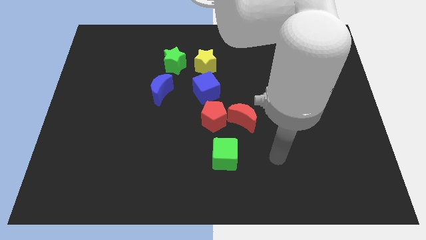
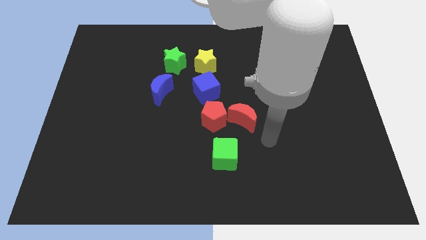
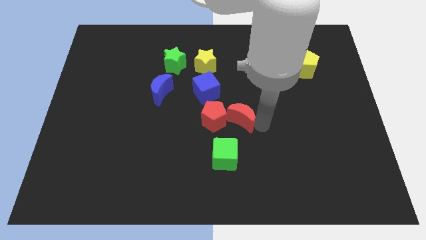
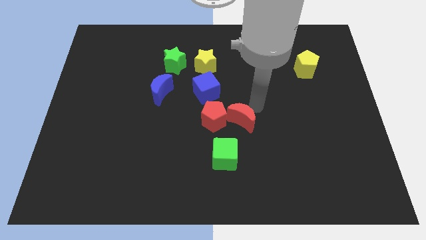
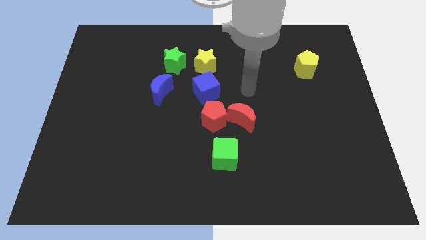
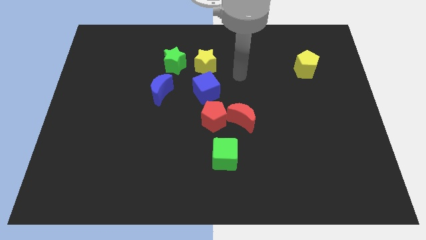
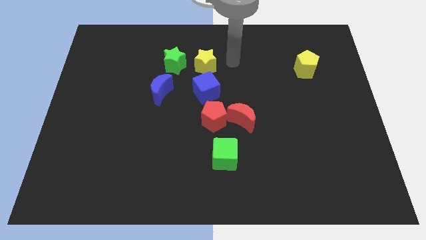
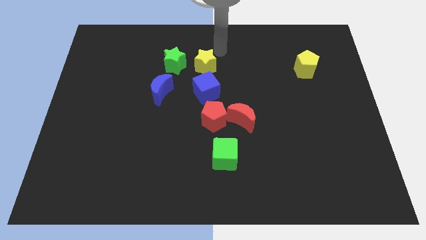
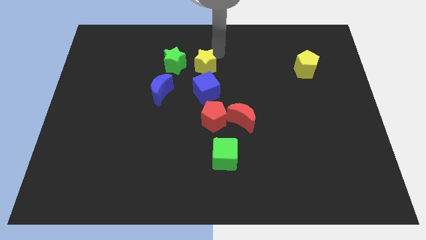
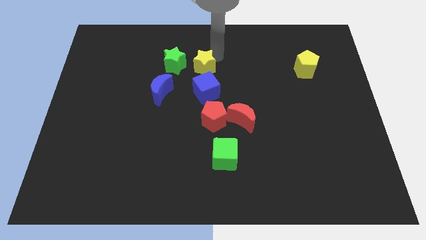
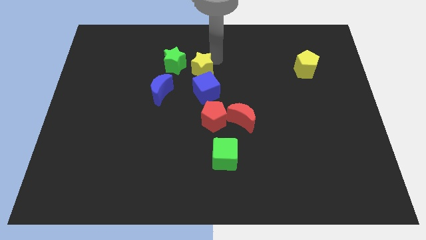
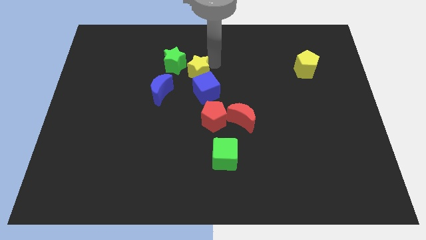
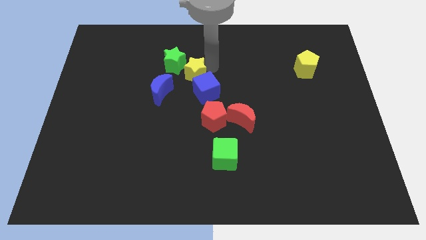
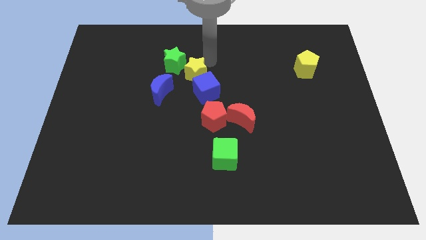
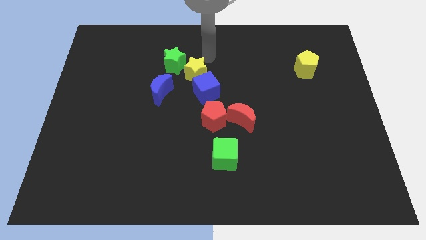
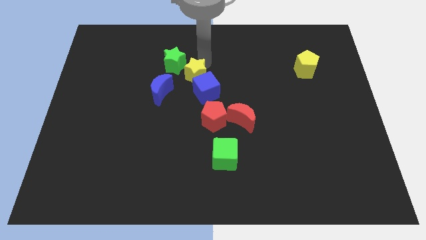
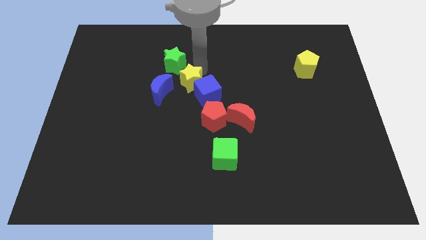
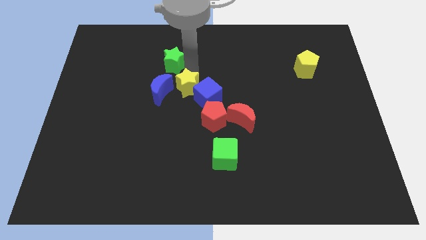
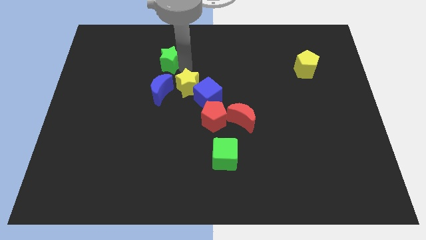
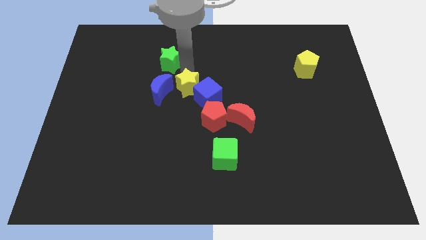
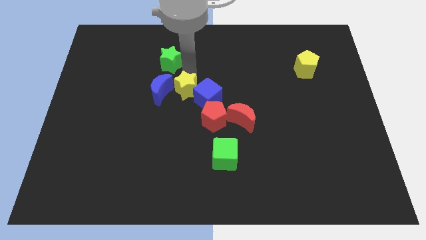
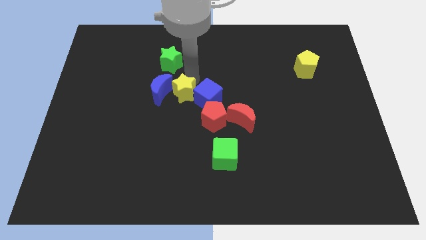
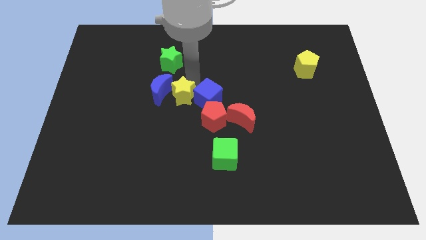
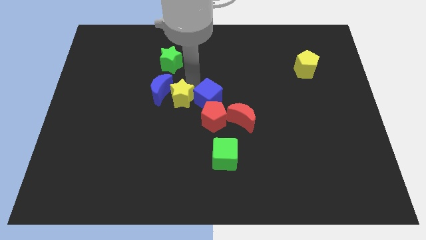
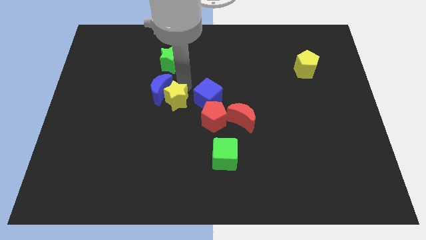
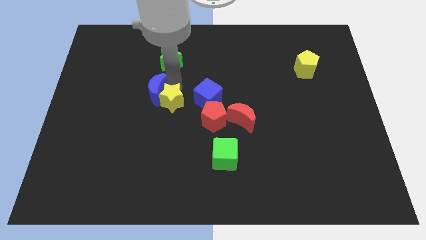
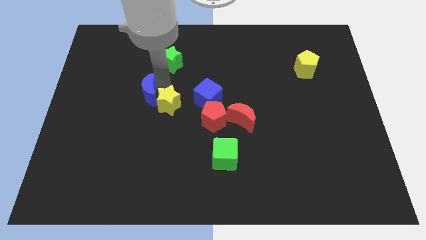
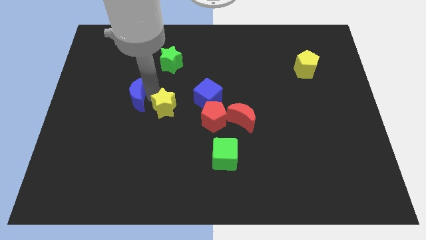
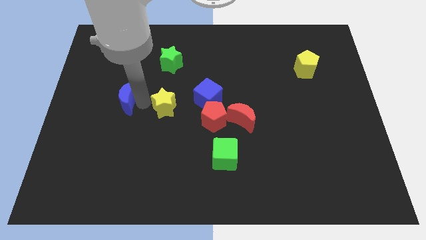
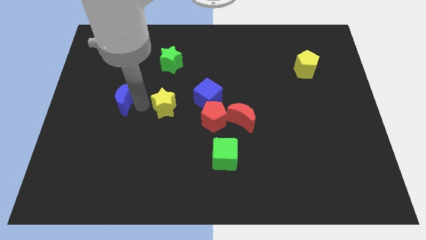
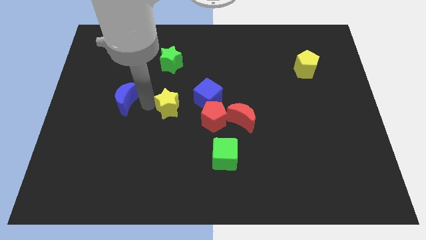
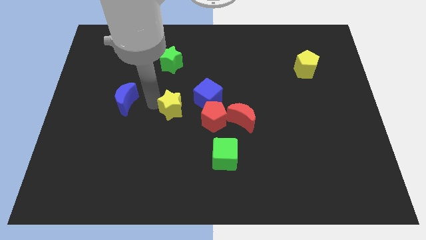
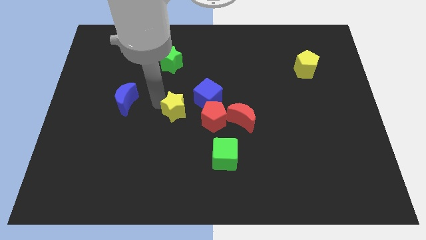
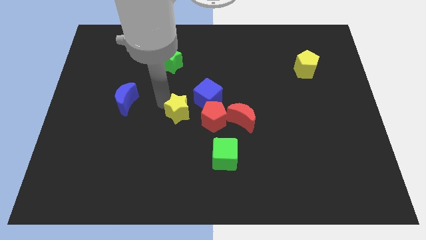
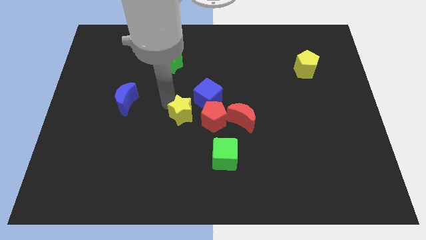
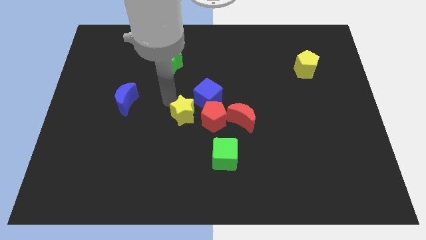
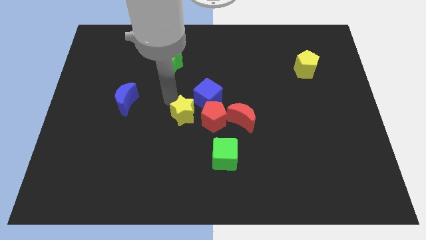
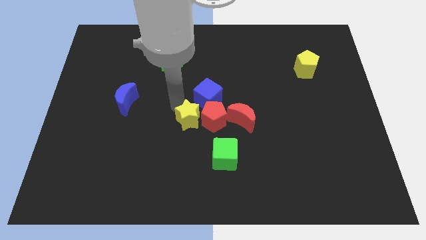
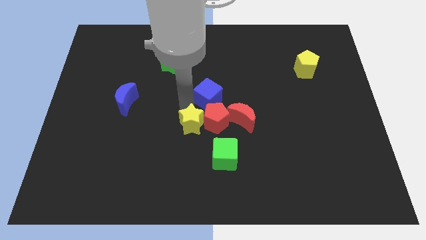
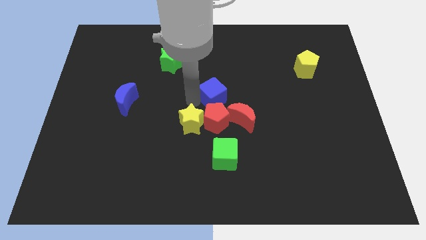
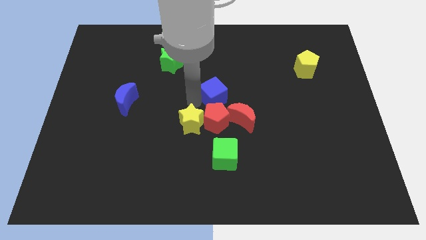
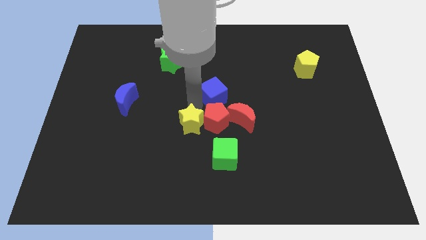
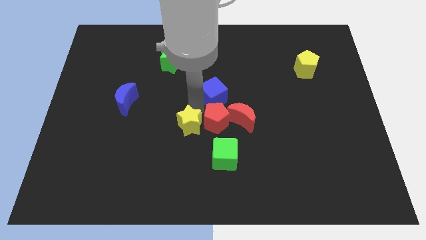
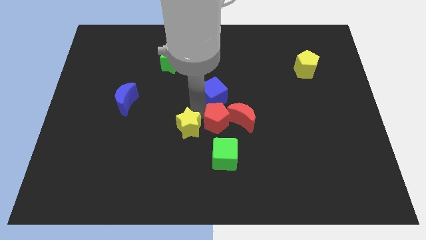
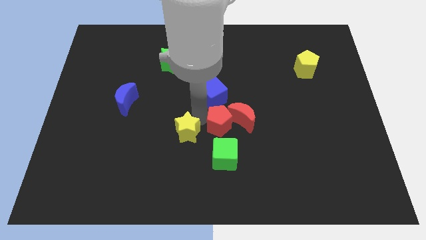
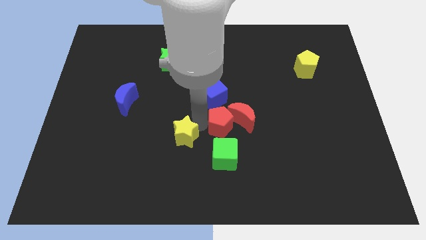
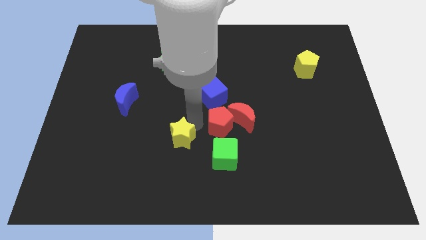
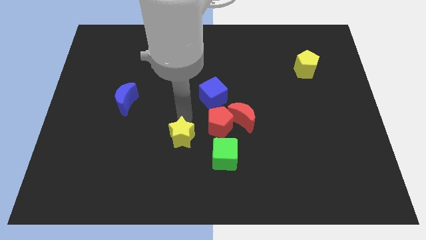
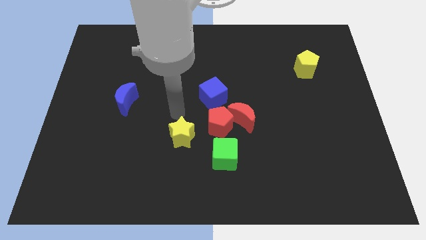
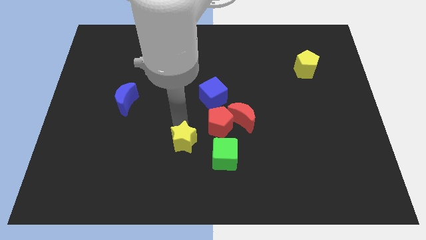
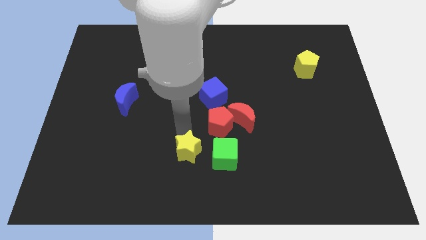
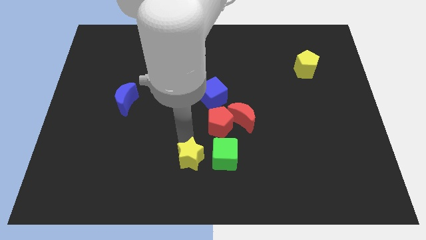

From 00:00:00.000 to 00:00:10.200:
put the yellow star to the bottom

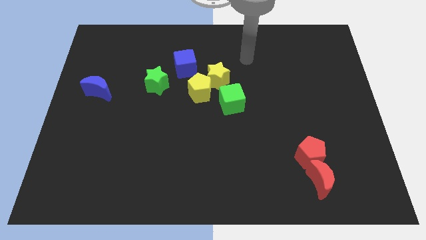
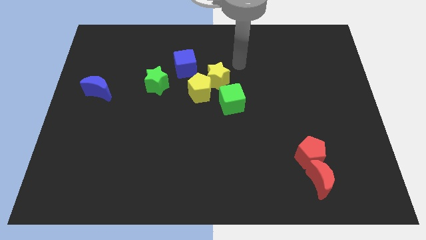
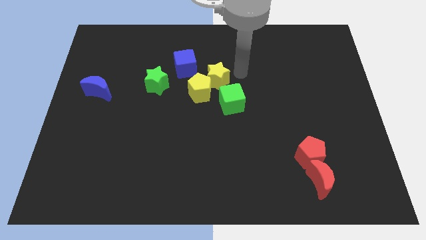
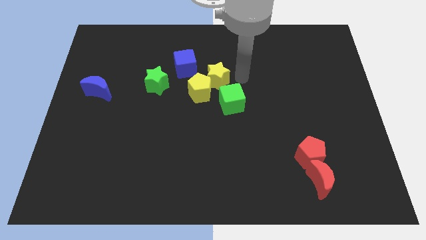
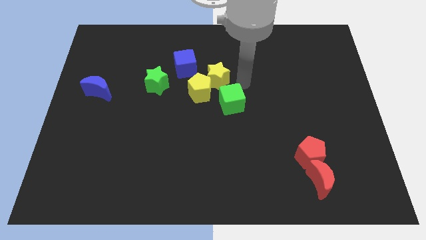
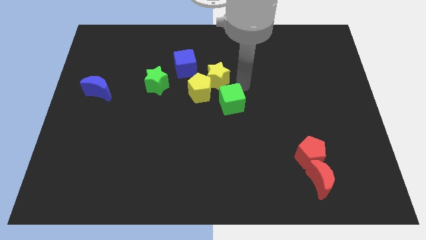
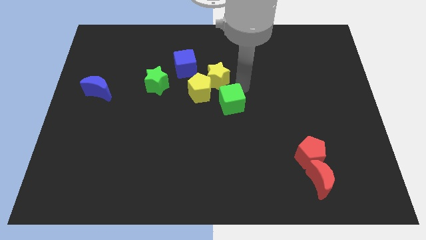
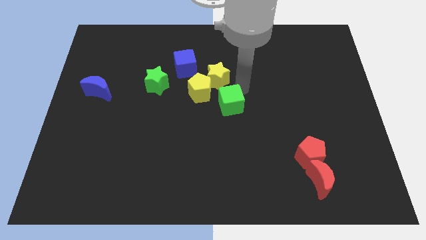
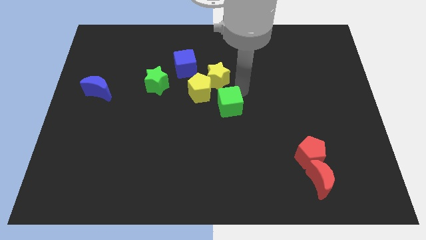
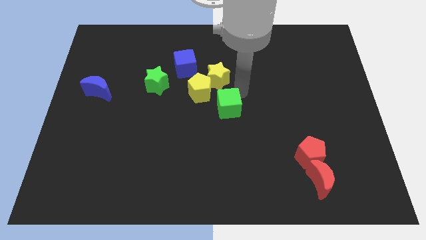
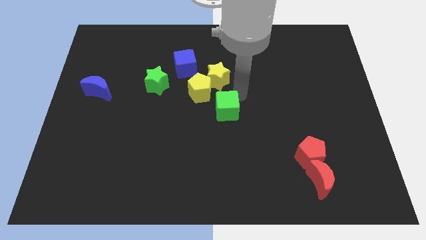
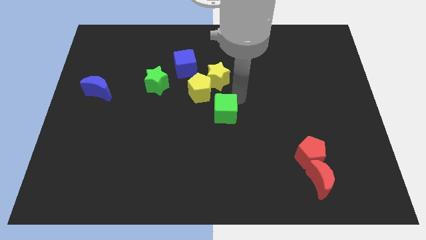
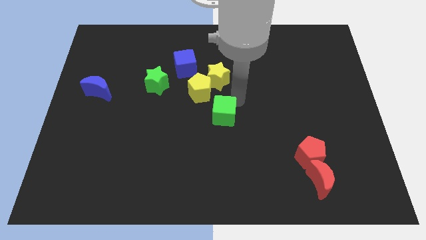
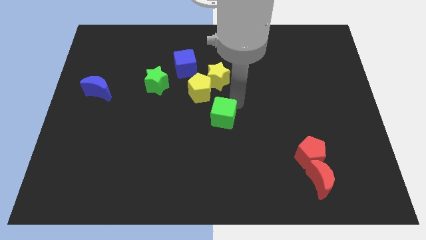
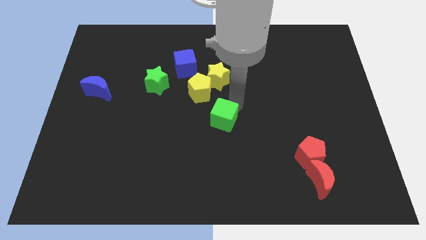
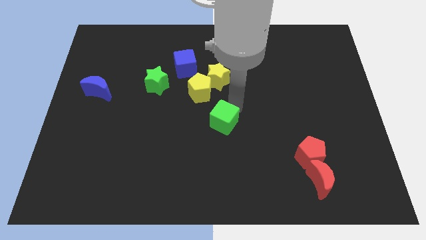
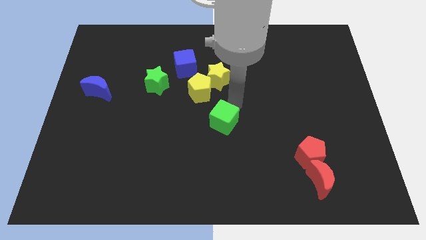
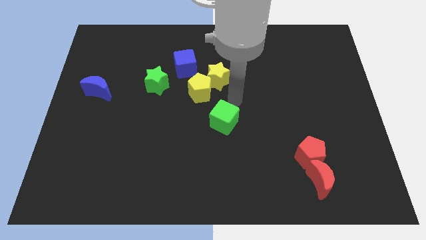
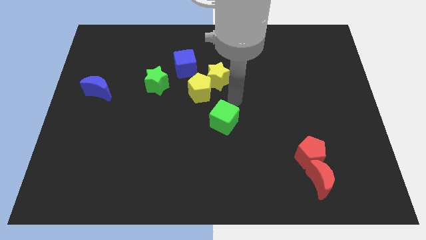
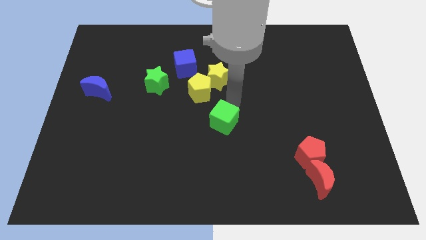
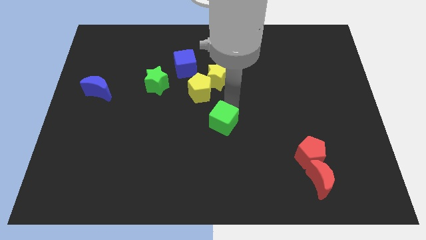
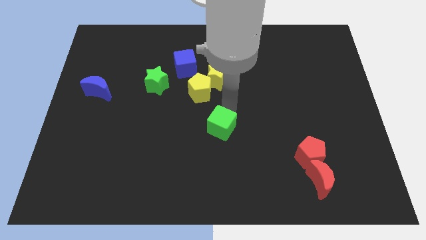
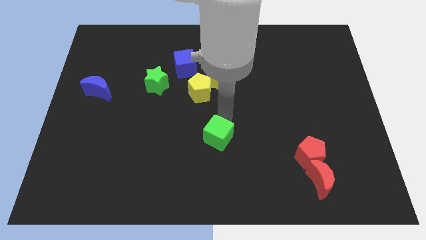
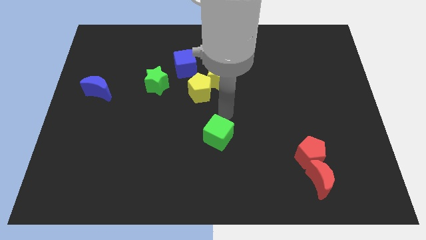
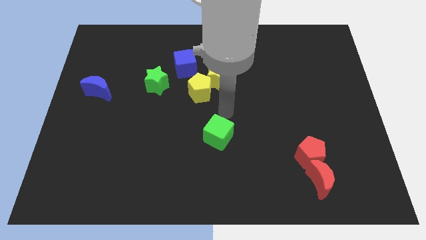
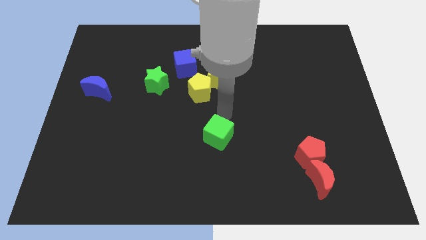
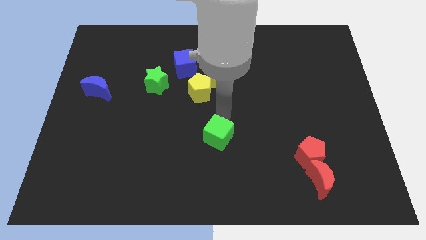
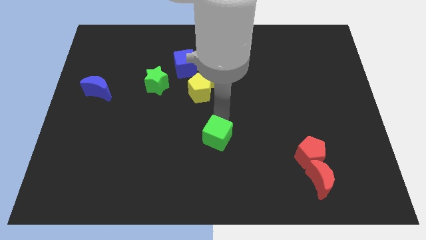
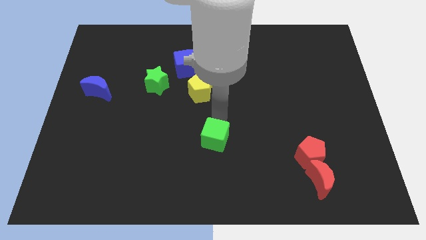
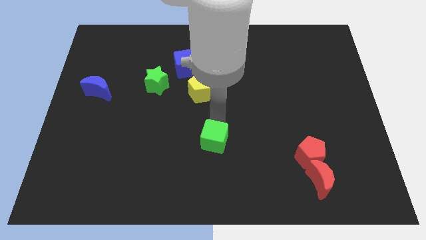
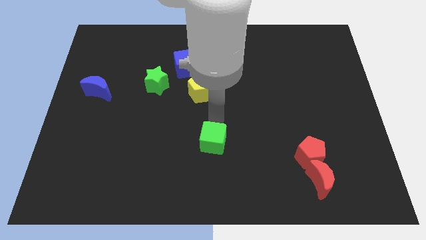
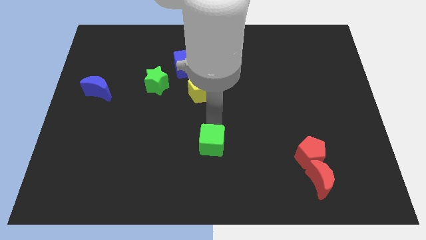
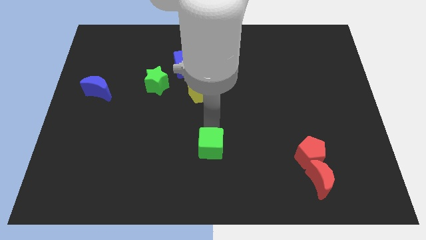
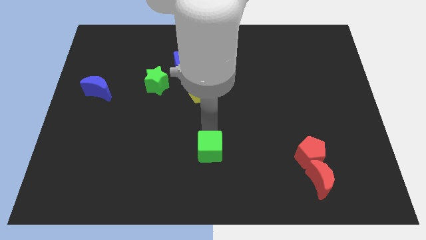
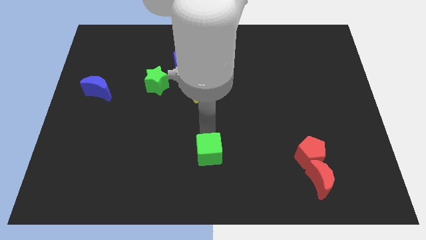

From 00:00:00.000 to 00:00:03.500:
move the green cube to the bottom side
